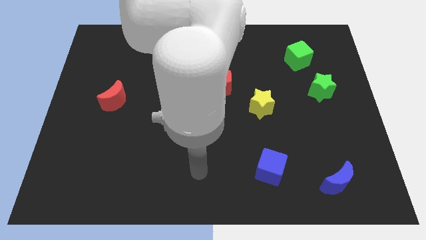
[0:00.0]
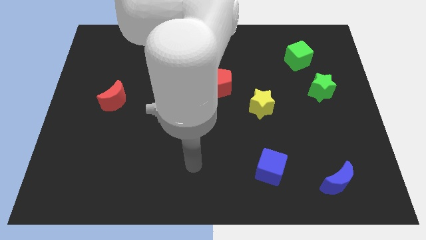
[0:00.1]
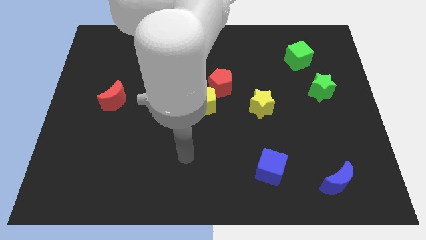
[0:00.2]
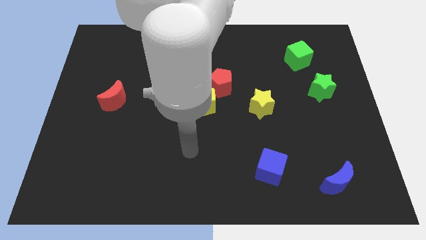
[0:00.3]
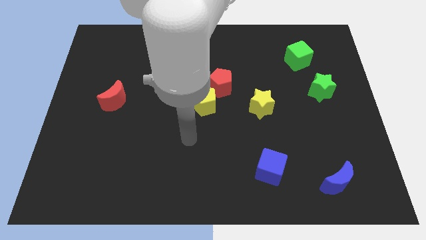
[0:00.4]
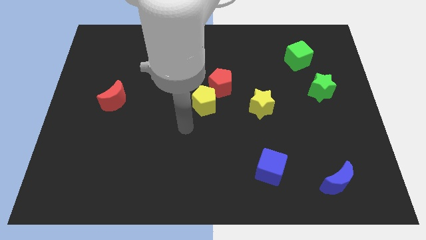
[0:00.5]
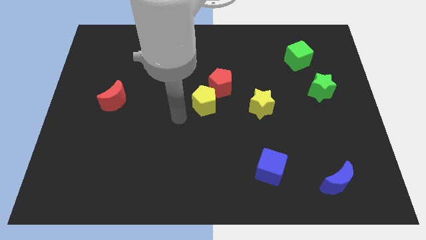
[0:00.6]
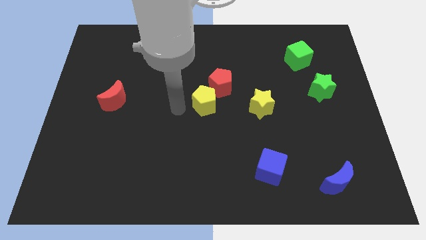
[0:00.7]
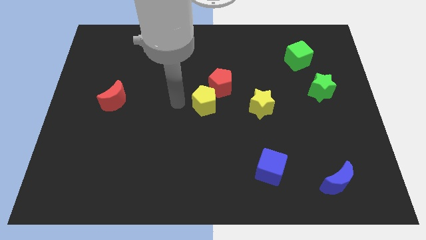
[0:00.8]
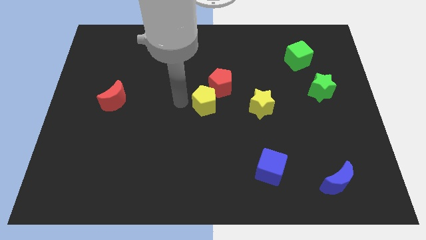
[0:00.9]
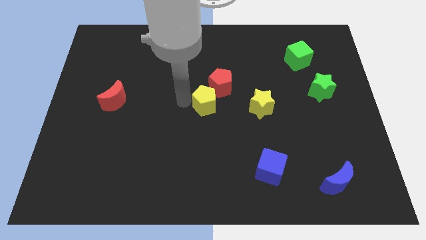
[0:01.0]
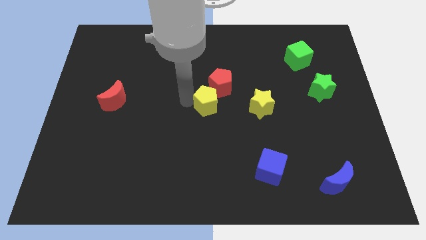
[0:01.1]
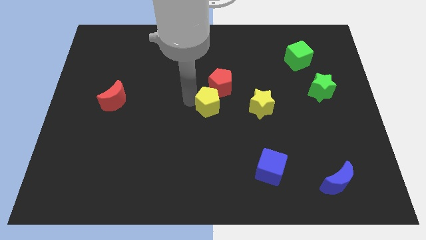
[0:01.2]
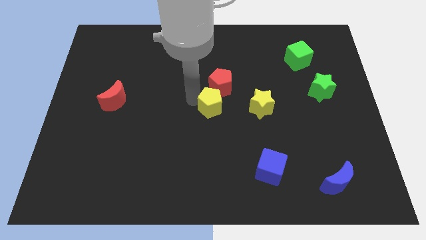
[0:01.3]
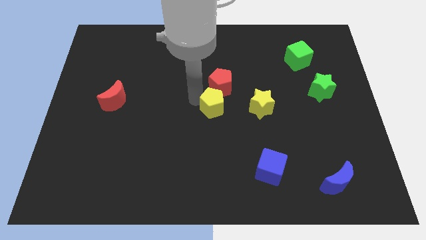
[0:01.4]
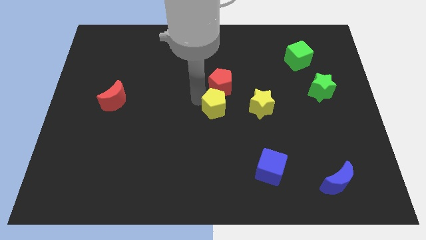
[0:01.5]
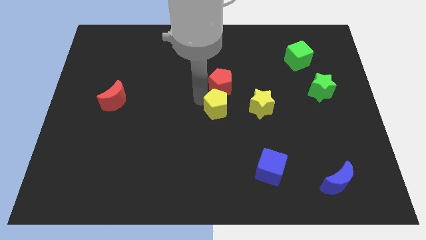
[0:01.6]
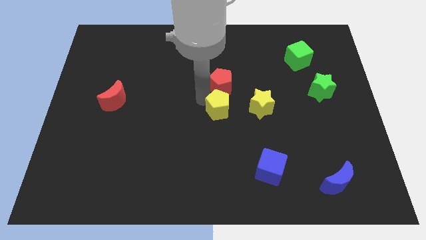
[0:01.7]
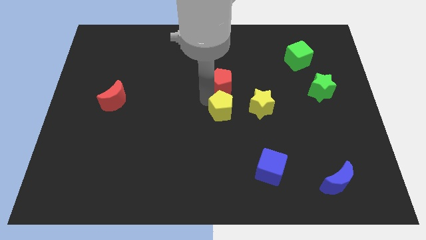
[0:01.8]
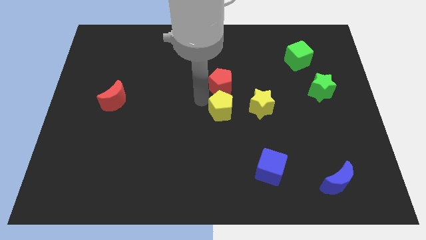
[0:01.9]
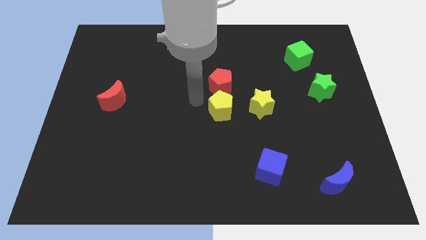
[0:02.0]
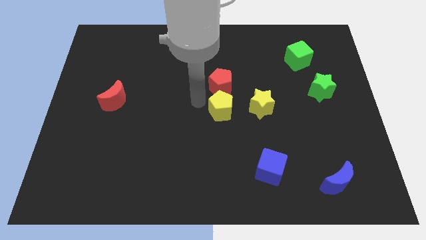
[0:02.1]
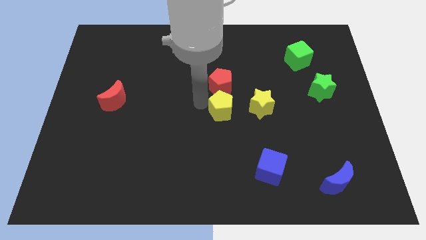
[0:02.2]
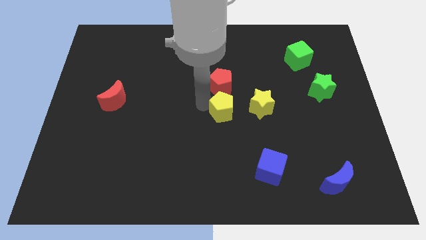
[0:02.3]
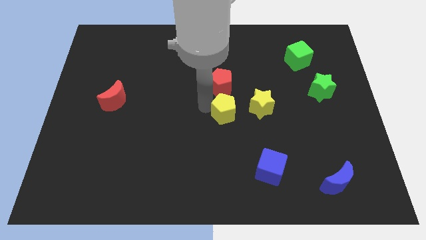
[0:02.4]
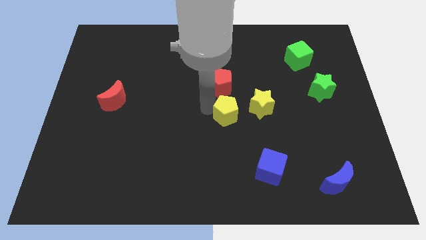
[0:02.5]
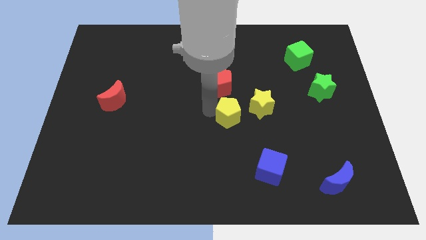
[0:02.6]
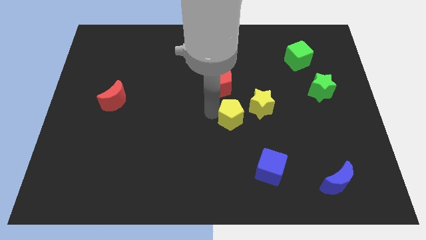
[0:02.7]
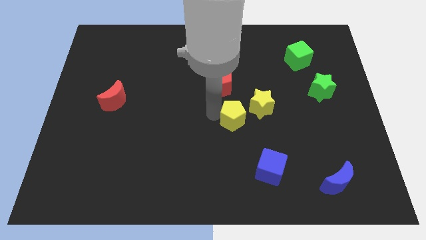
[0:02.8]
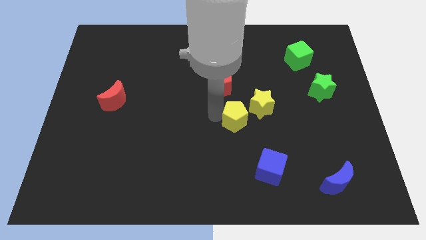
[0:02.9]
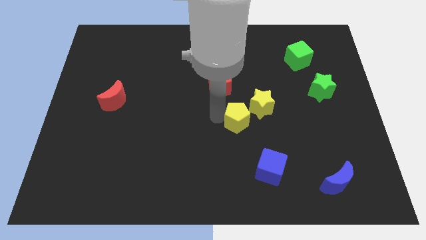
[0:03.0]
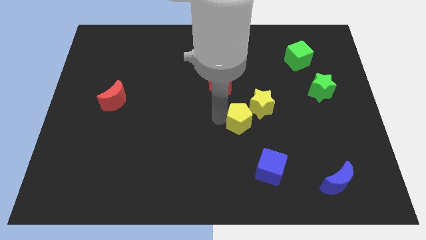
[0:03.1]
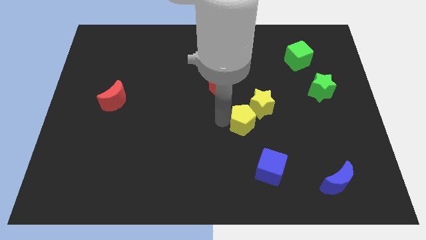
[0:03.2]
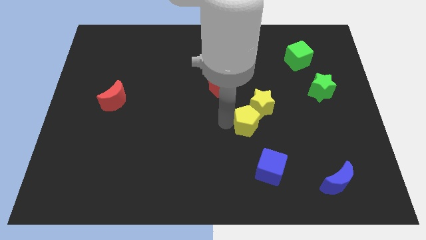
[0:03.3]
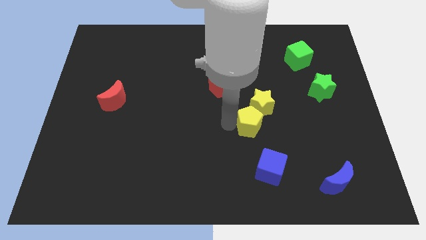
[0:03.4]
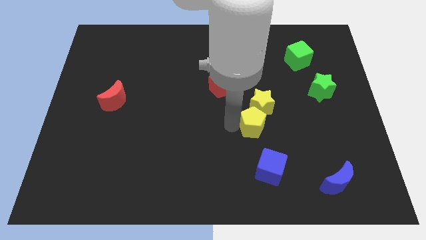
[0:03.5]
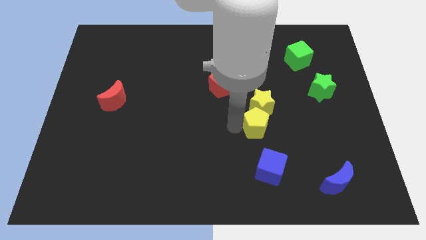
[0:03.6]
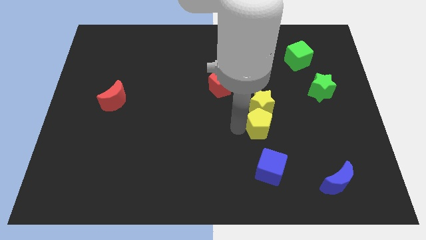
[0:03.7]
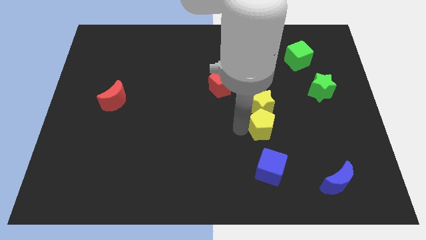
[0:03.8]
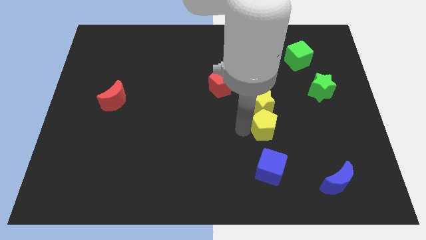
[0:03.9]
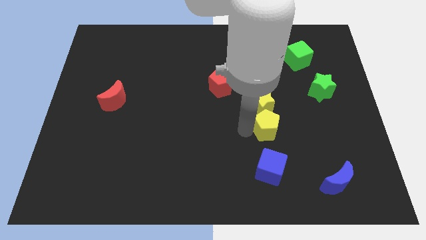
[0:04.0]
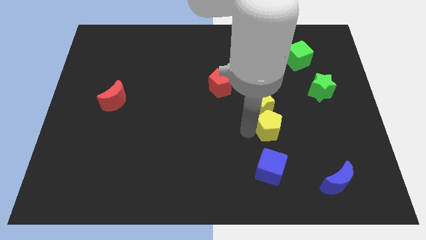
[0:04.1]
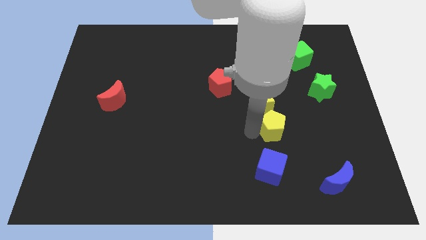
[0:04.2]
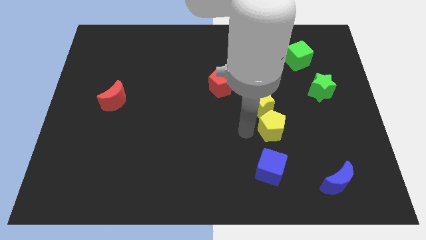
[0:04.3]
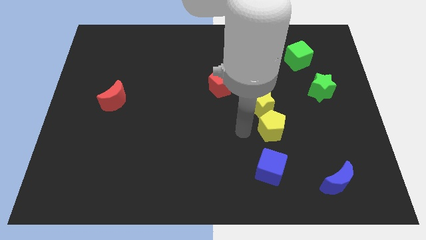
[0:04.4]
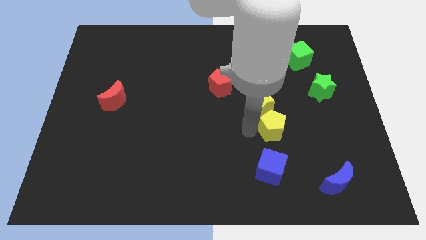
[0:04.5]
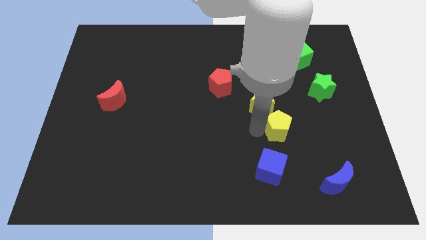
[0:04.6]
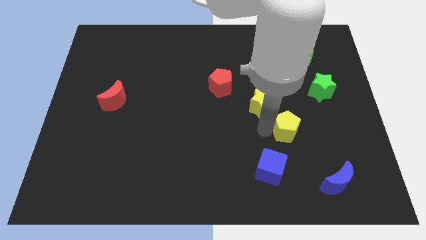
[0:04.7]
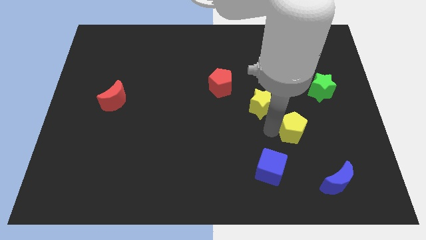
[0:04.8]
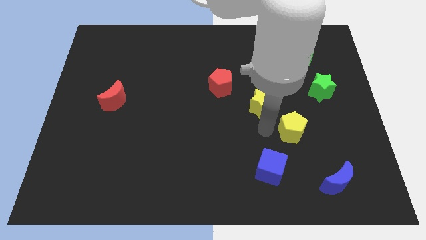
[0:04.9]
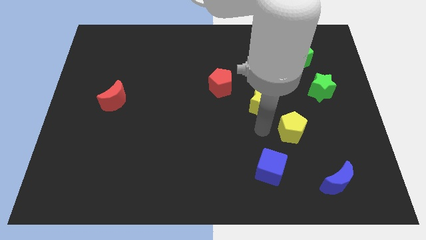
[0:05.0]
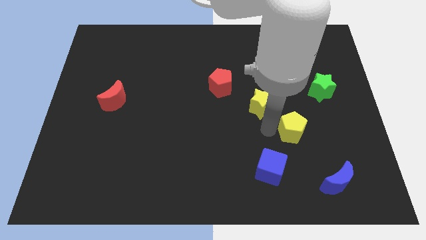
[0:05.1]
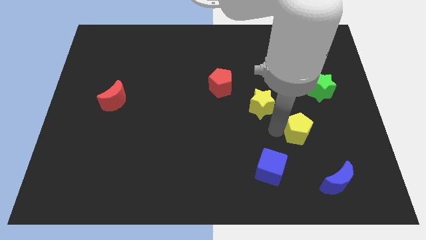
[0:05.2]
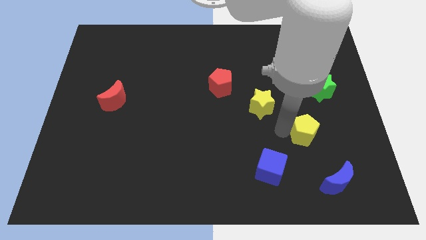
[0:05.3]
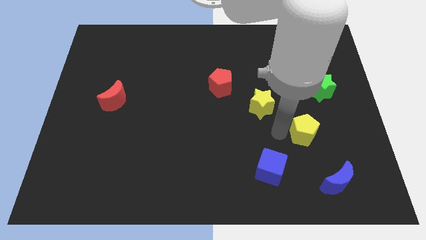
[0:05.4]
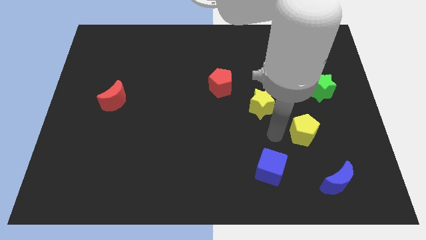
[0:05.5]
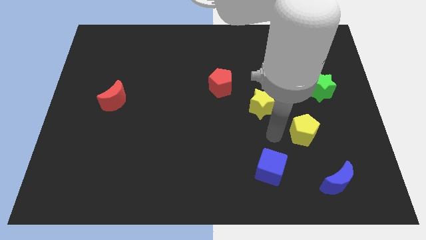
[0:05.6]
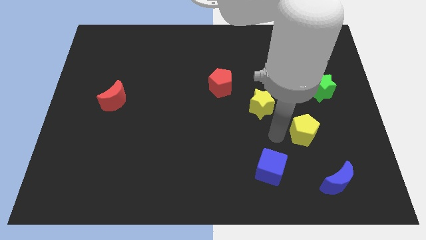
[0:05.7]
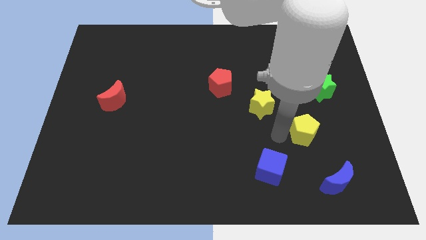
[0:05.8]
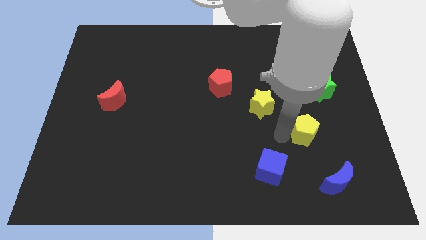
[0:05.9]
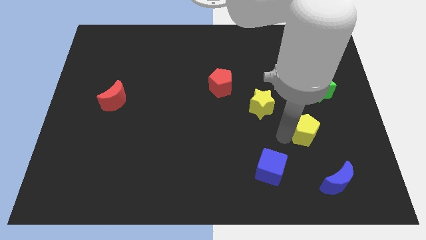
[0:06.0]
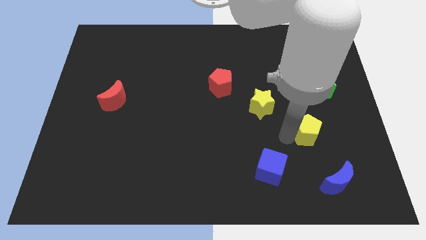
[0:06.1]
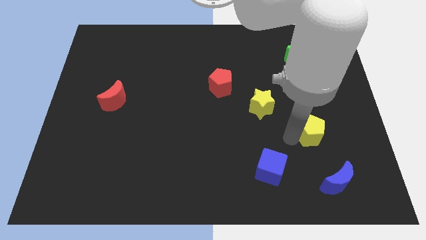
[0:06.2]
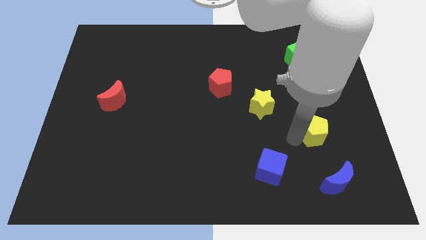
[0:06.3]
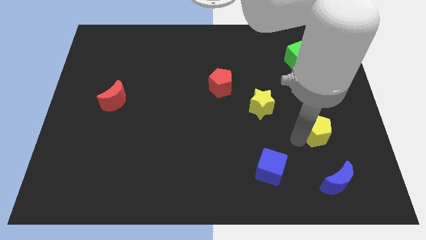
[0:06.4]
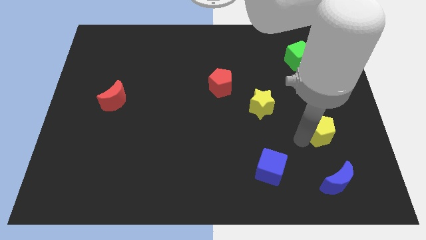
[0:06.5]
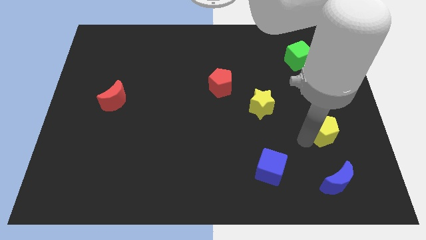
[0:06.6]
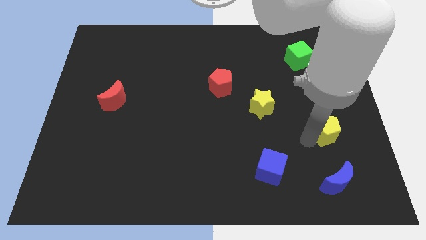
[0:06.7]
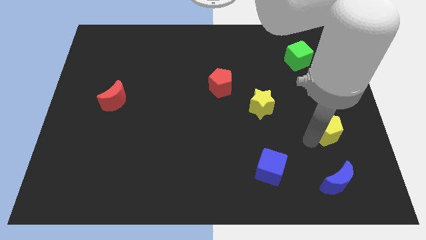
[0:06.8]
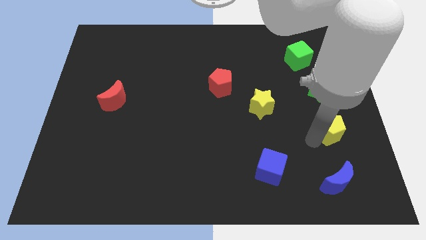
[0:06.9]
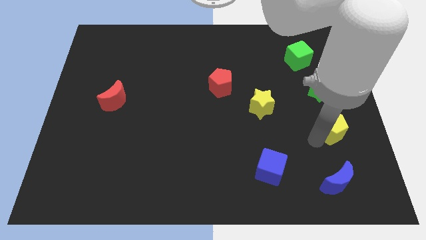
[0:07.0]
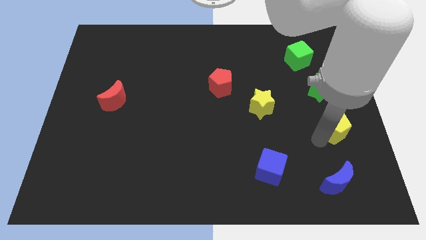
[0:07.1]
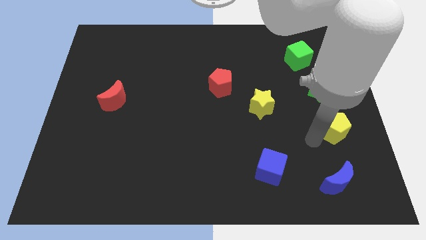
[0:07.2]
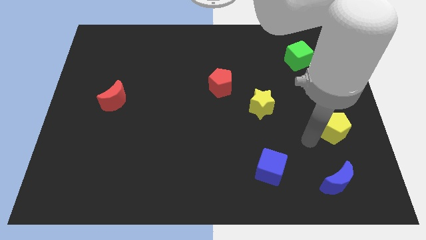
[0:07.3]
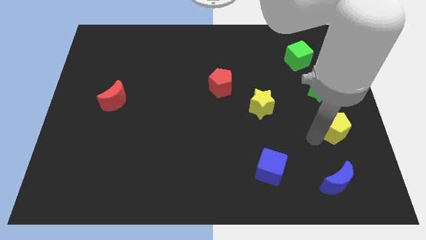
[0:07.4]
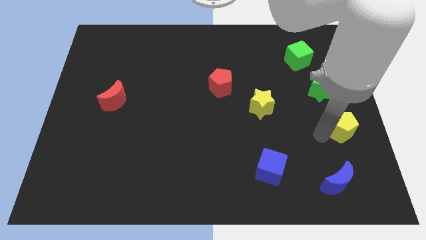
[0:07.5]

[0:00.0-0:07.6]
slide the yellow pentagon to the right side of the board
